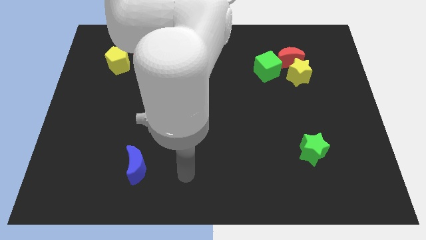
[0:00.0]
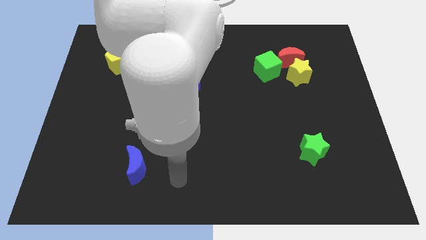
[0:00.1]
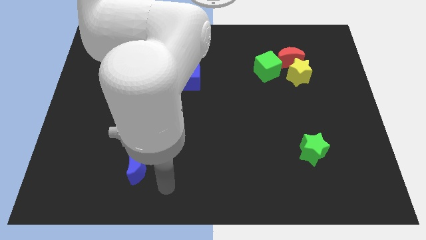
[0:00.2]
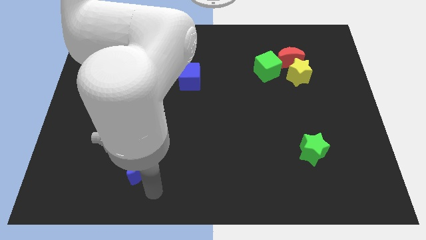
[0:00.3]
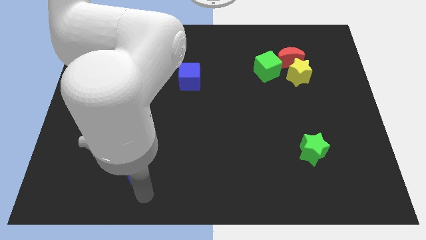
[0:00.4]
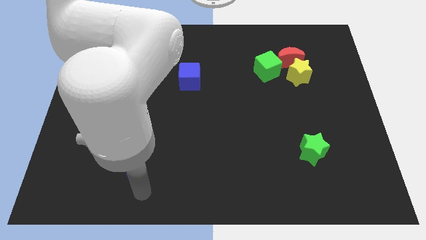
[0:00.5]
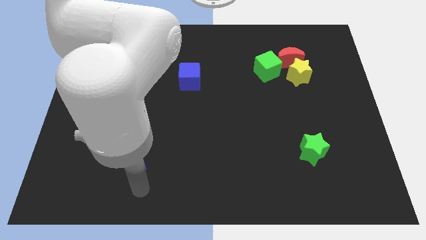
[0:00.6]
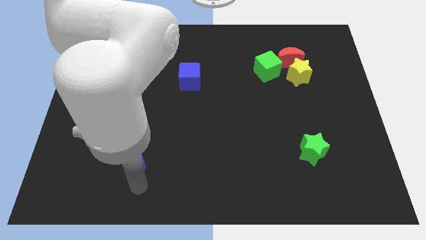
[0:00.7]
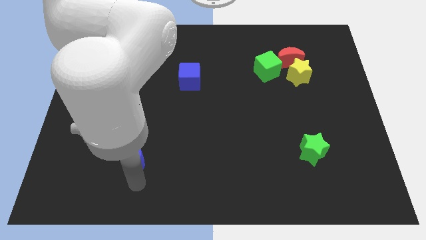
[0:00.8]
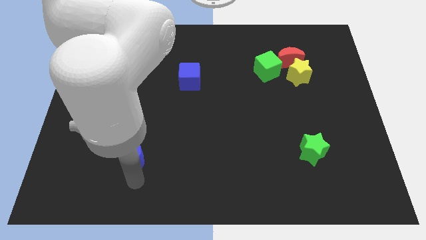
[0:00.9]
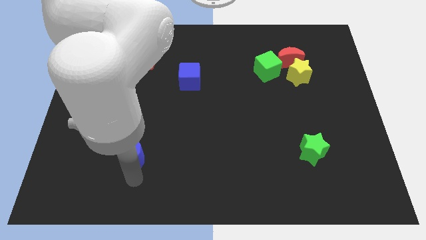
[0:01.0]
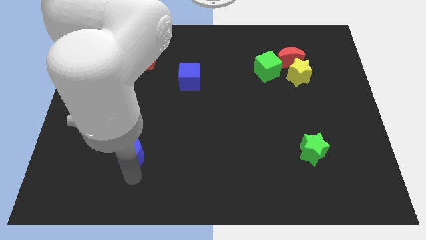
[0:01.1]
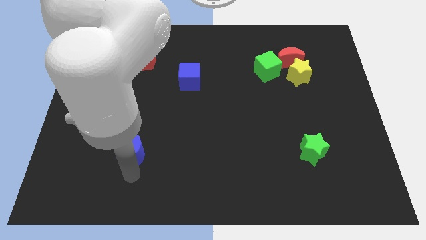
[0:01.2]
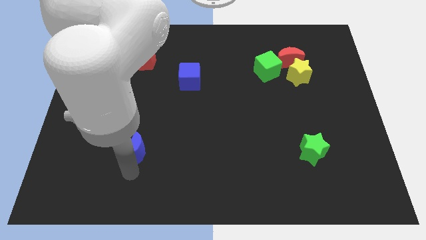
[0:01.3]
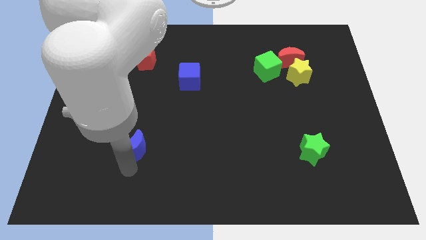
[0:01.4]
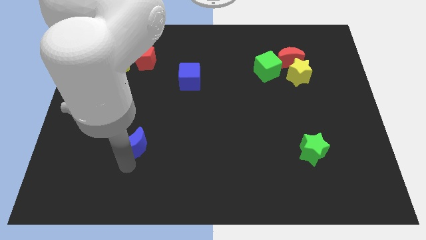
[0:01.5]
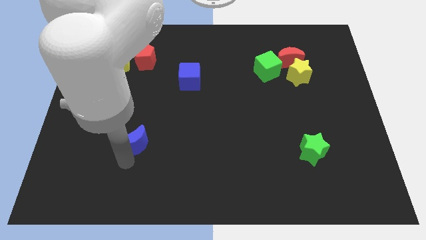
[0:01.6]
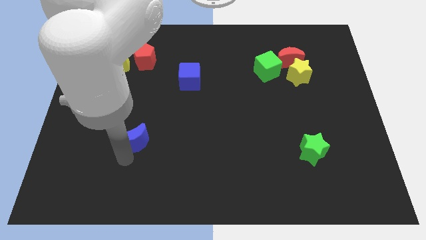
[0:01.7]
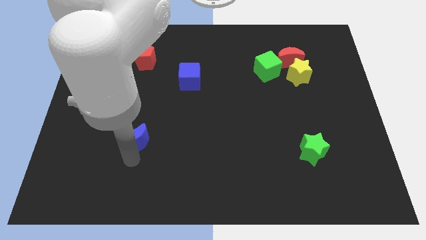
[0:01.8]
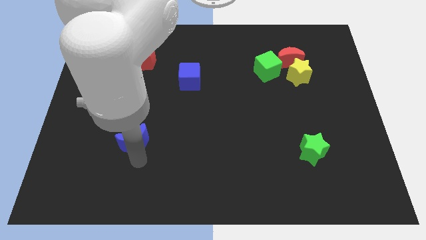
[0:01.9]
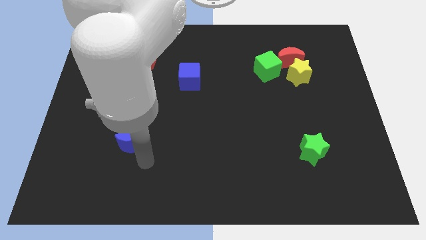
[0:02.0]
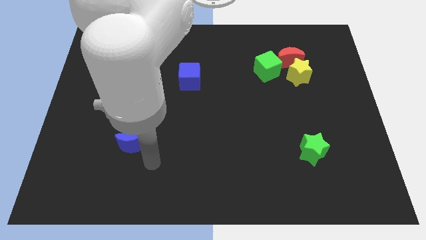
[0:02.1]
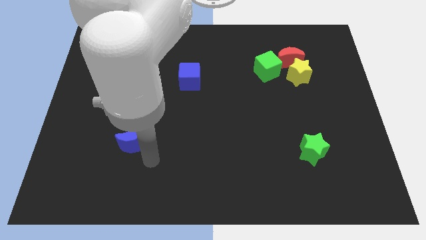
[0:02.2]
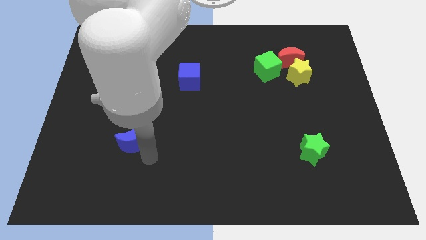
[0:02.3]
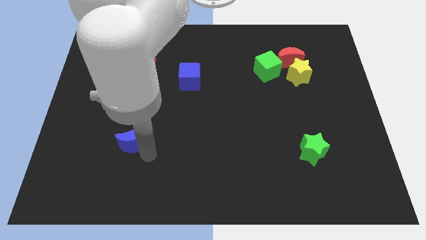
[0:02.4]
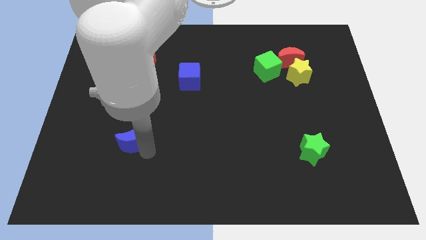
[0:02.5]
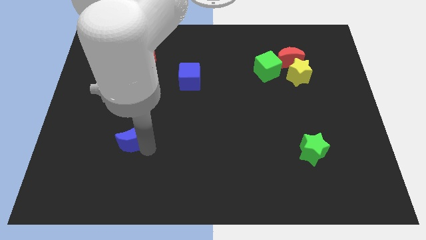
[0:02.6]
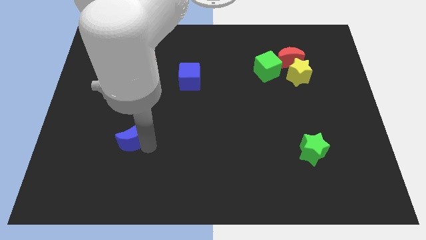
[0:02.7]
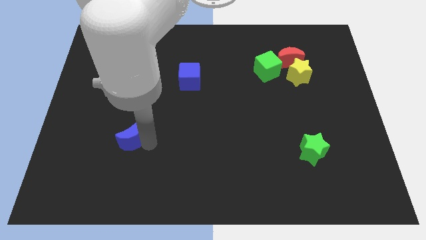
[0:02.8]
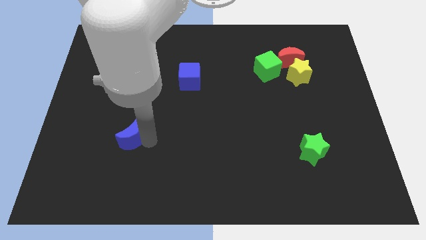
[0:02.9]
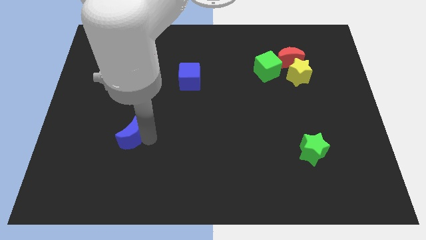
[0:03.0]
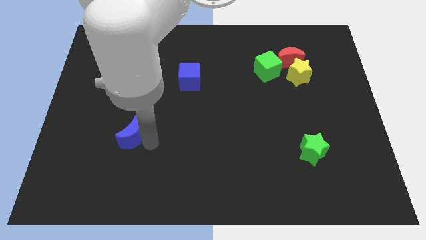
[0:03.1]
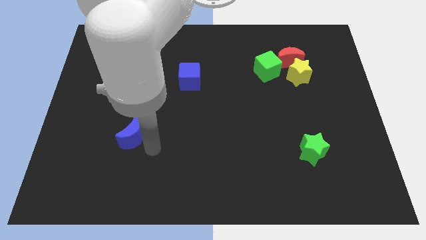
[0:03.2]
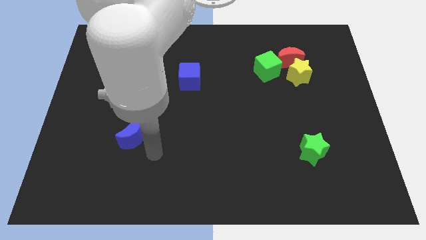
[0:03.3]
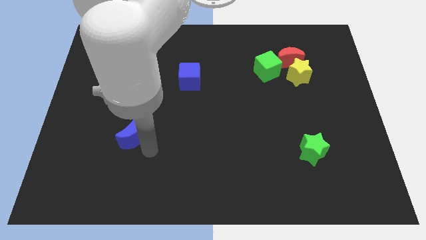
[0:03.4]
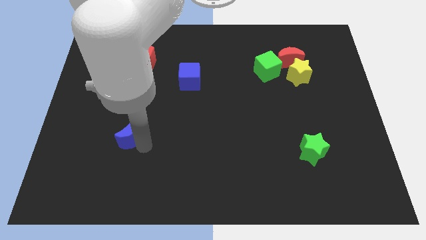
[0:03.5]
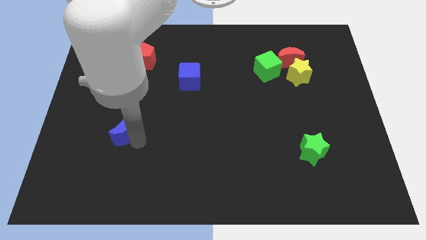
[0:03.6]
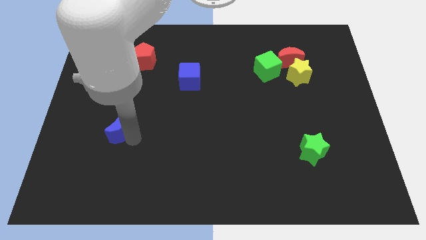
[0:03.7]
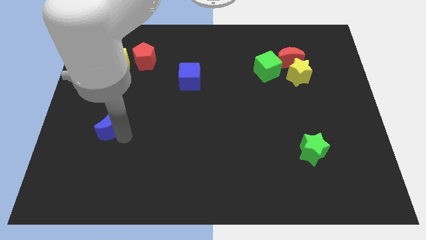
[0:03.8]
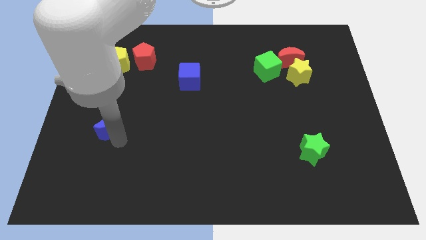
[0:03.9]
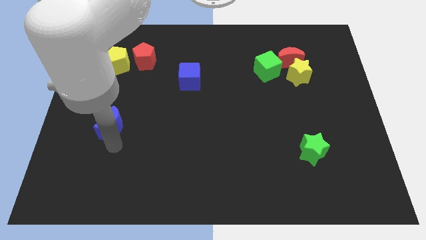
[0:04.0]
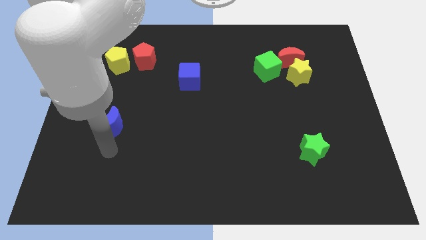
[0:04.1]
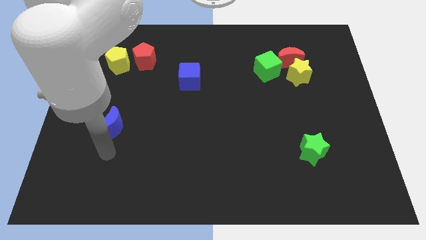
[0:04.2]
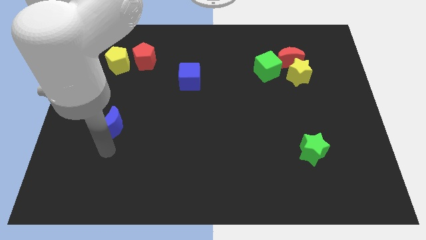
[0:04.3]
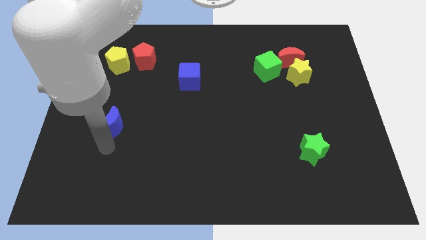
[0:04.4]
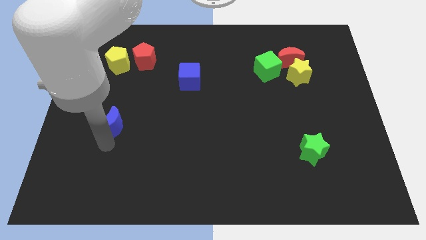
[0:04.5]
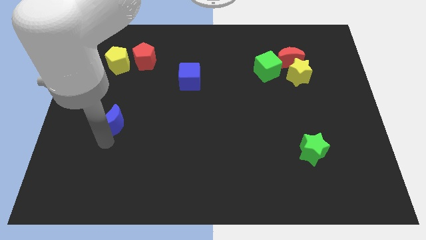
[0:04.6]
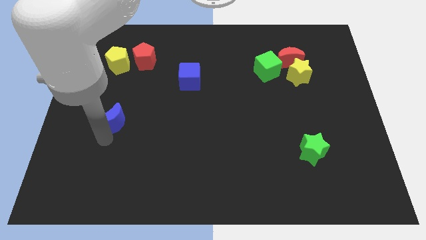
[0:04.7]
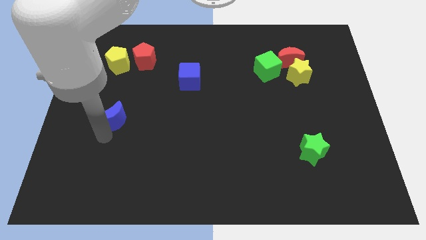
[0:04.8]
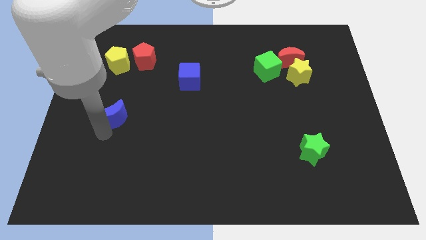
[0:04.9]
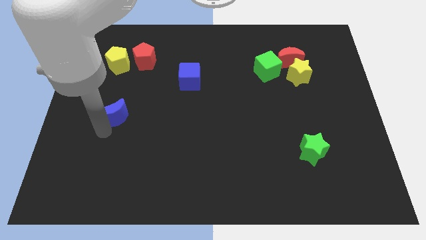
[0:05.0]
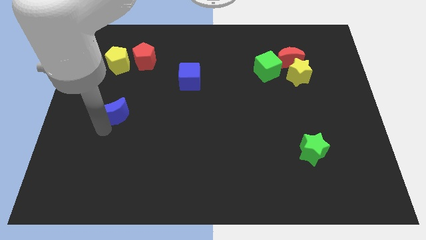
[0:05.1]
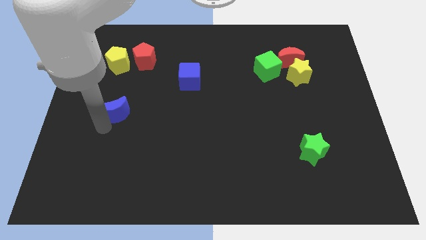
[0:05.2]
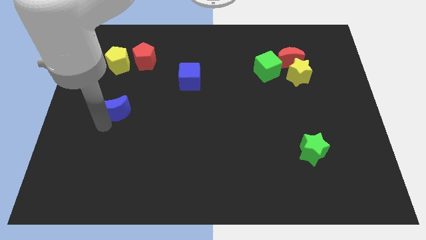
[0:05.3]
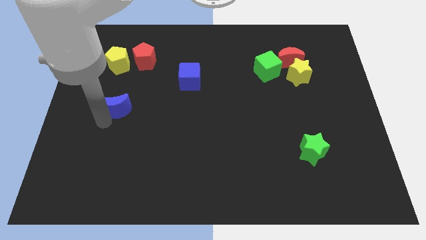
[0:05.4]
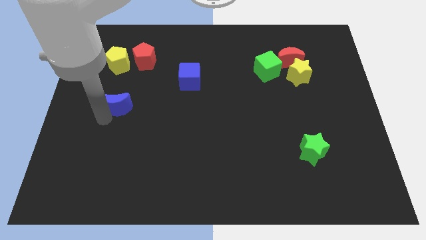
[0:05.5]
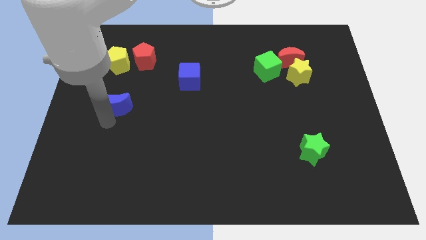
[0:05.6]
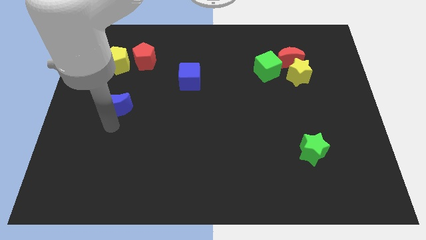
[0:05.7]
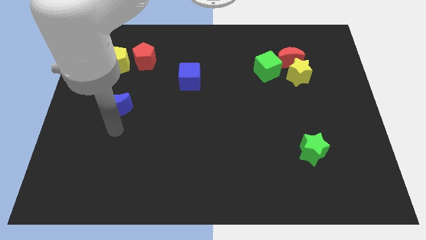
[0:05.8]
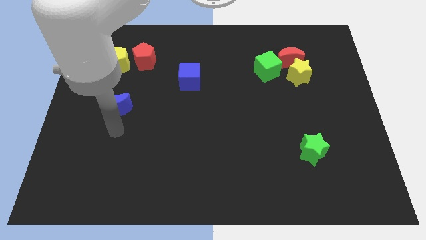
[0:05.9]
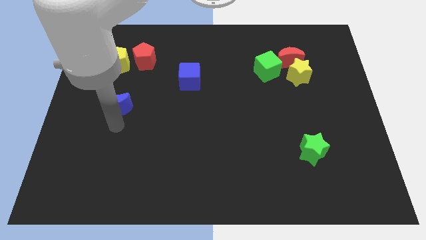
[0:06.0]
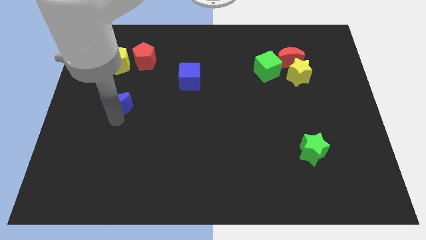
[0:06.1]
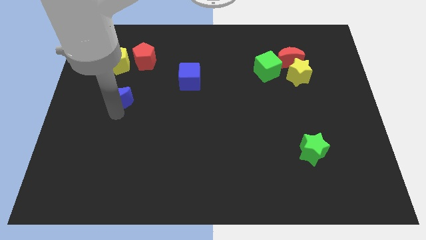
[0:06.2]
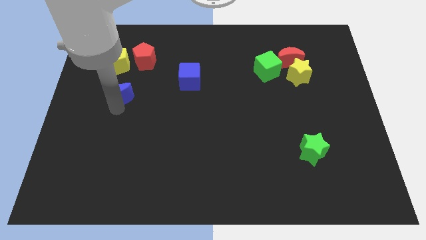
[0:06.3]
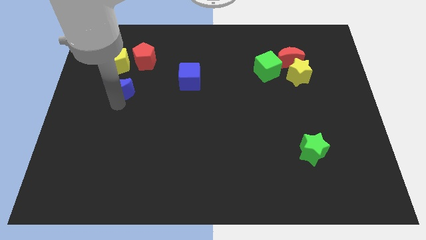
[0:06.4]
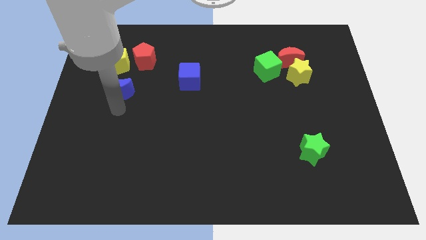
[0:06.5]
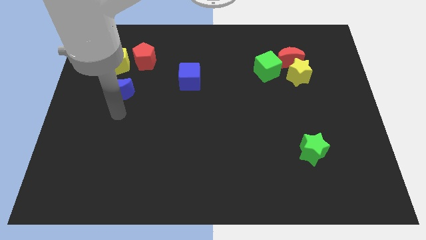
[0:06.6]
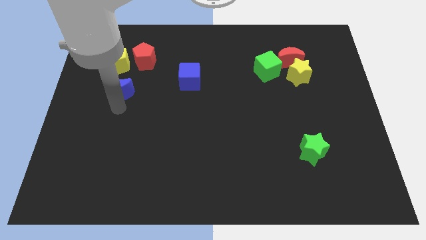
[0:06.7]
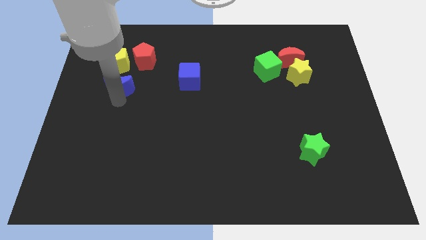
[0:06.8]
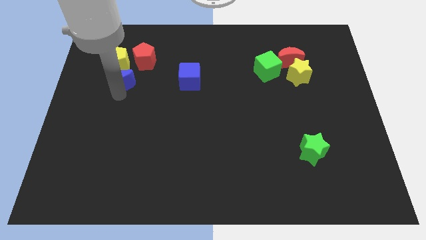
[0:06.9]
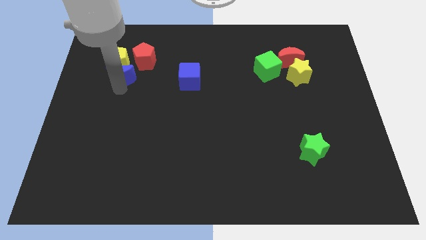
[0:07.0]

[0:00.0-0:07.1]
push the blue moon close to the yellow pentagon
